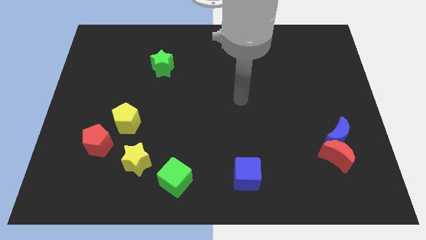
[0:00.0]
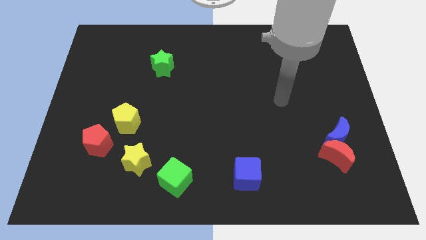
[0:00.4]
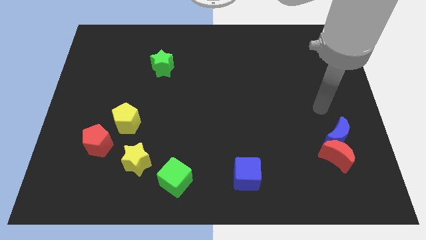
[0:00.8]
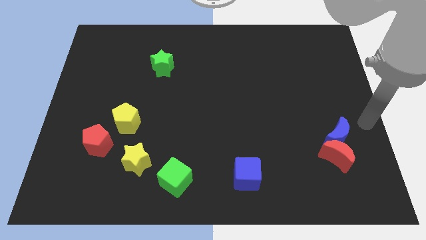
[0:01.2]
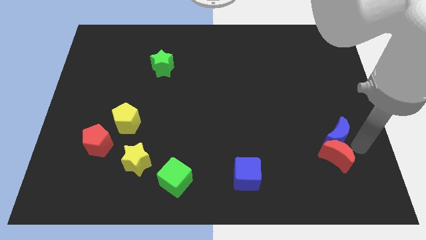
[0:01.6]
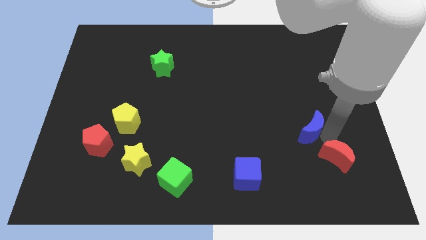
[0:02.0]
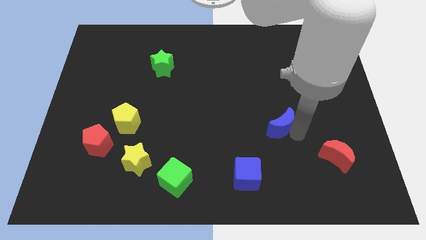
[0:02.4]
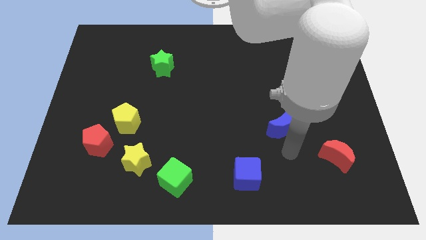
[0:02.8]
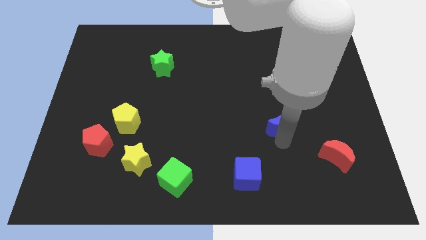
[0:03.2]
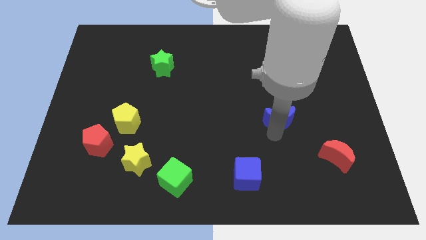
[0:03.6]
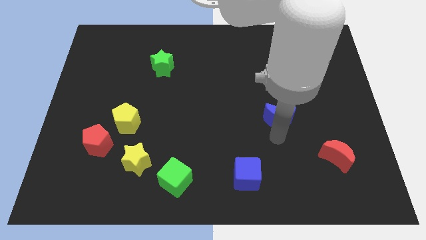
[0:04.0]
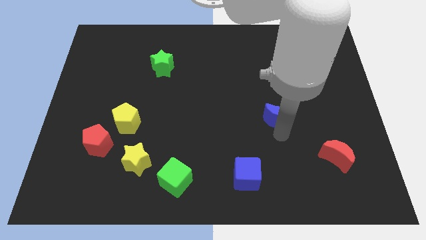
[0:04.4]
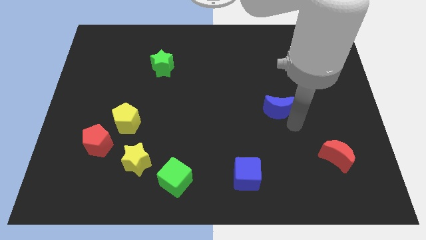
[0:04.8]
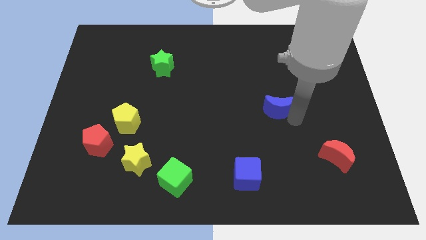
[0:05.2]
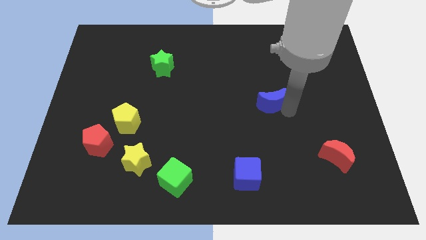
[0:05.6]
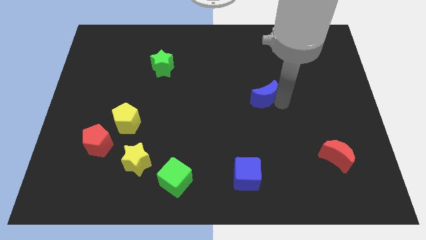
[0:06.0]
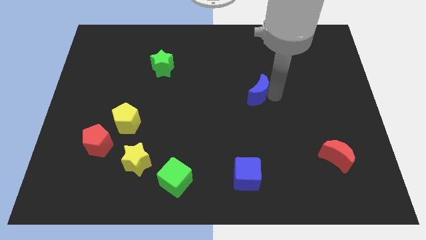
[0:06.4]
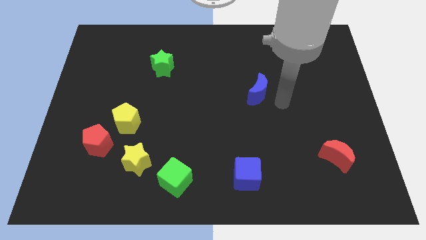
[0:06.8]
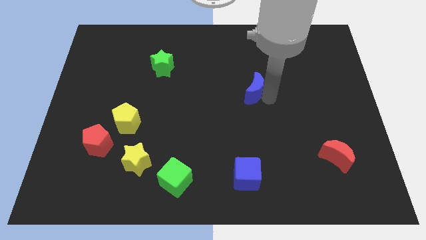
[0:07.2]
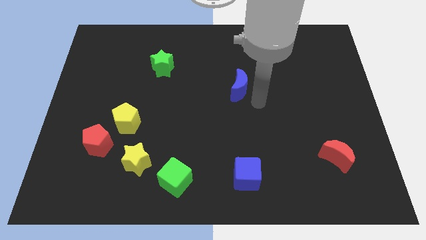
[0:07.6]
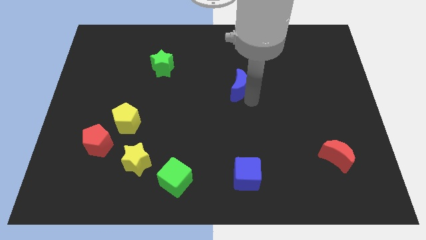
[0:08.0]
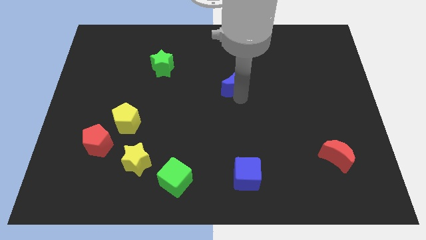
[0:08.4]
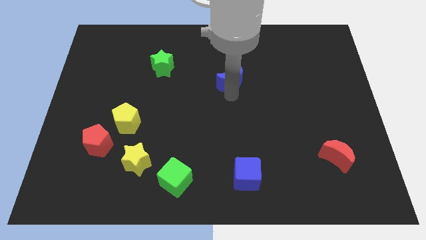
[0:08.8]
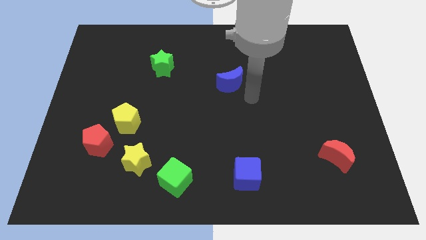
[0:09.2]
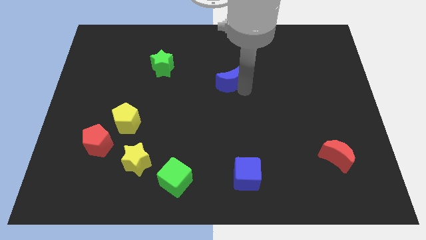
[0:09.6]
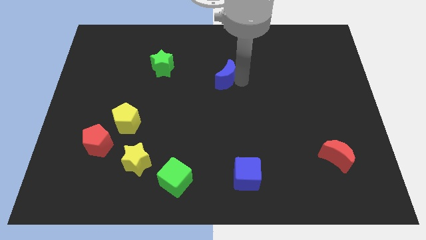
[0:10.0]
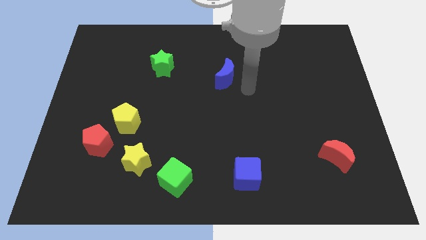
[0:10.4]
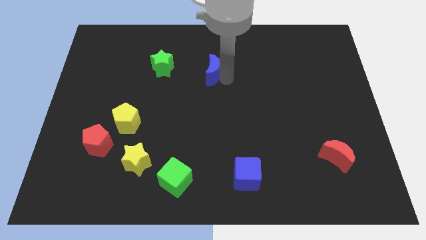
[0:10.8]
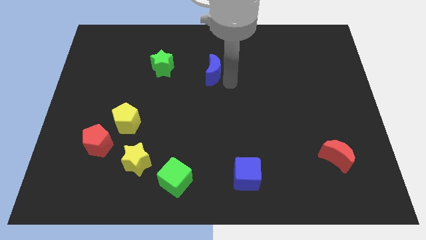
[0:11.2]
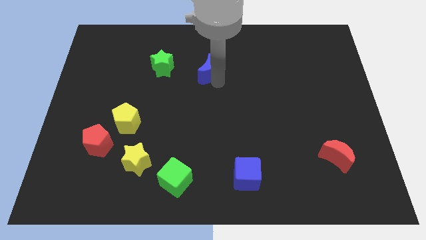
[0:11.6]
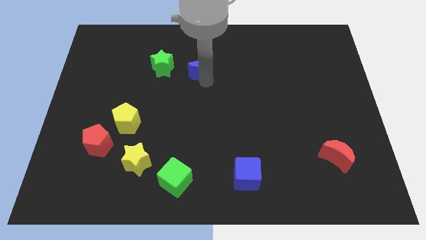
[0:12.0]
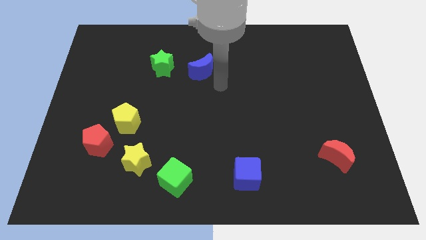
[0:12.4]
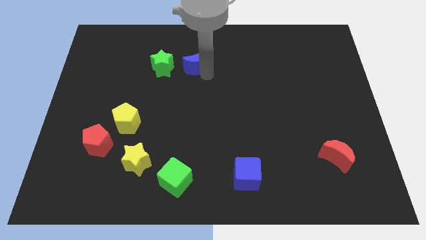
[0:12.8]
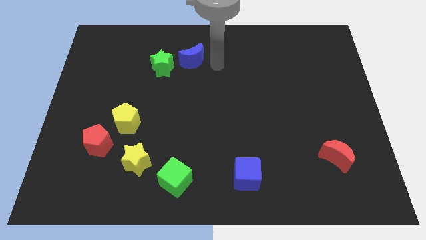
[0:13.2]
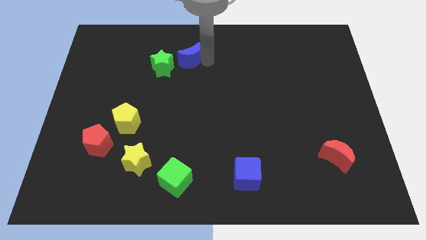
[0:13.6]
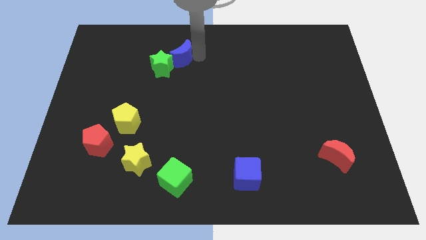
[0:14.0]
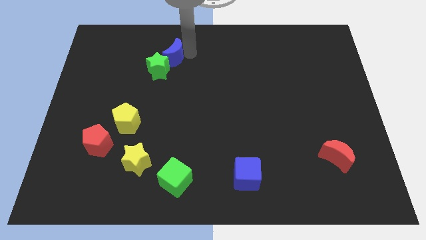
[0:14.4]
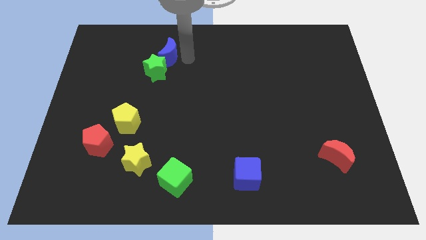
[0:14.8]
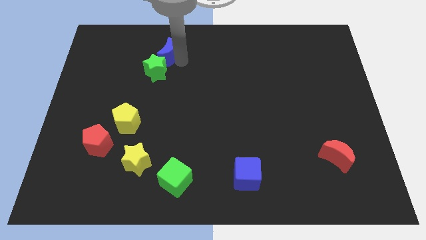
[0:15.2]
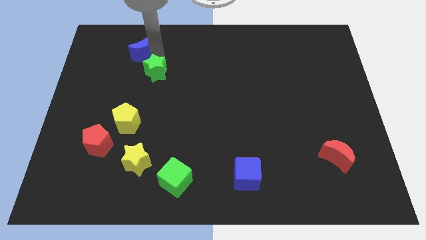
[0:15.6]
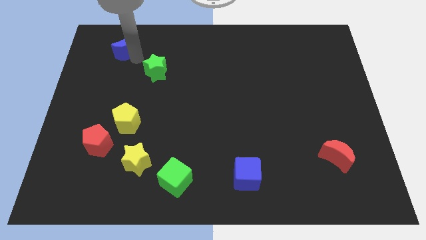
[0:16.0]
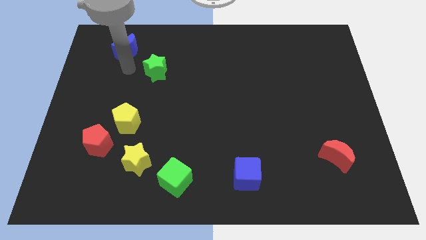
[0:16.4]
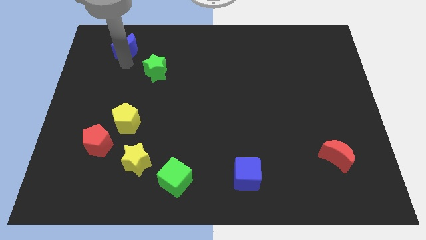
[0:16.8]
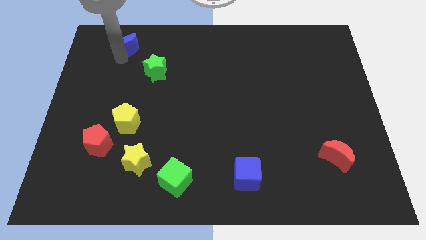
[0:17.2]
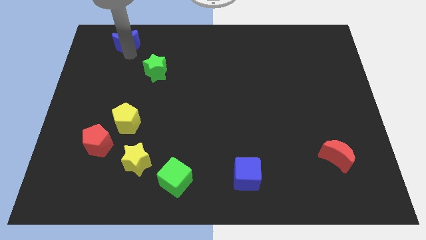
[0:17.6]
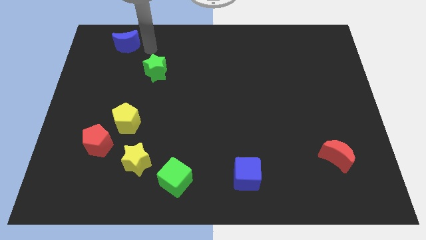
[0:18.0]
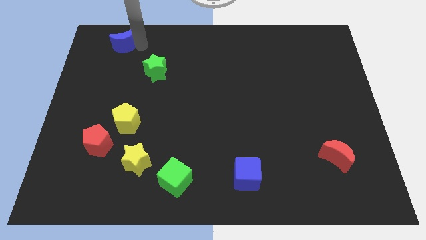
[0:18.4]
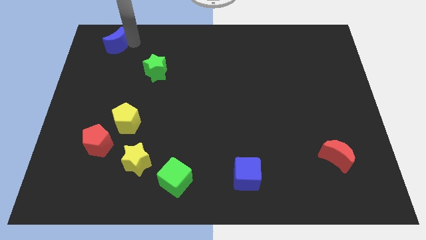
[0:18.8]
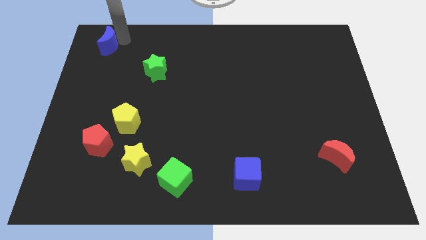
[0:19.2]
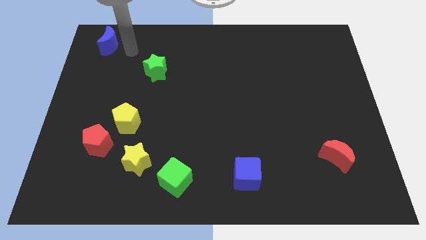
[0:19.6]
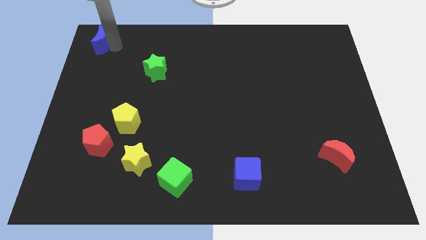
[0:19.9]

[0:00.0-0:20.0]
push the blue moon to the top left

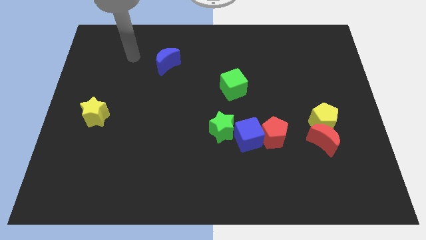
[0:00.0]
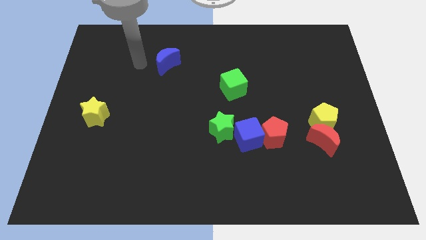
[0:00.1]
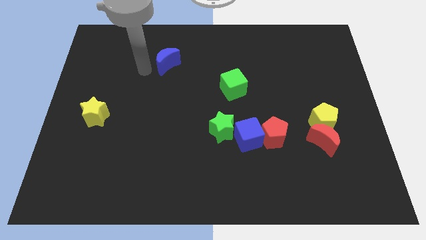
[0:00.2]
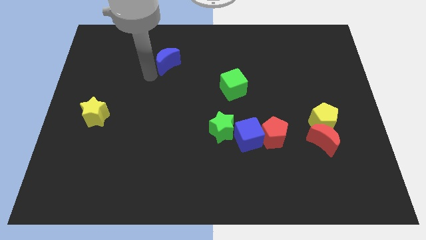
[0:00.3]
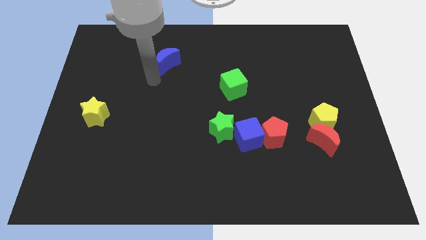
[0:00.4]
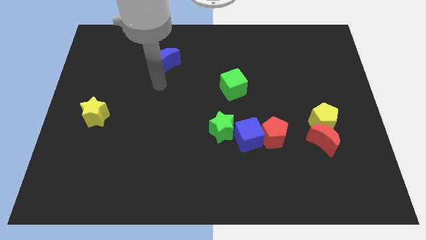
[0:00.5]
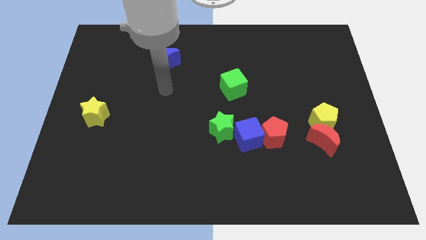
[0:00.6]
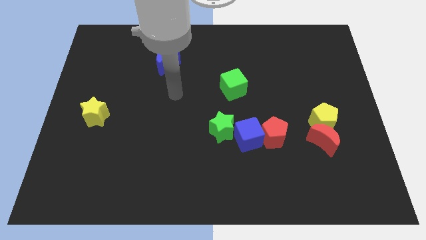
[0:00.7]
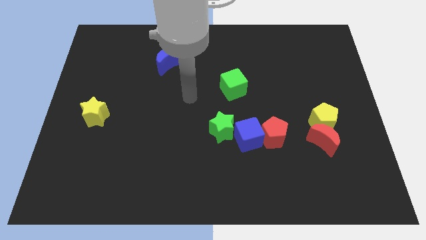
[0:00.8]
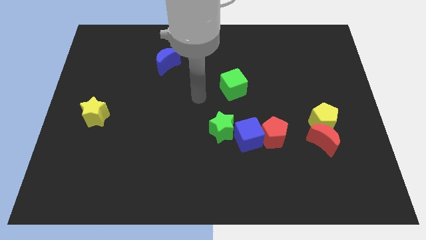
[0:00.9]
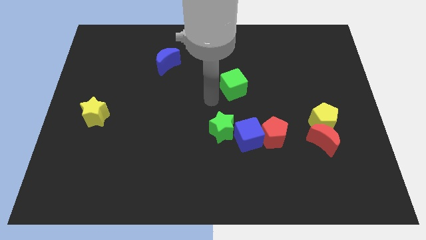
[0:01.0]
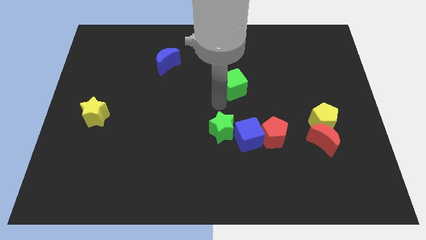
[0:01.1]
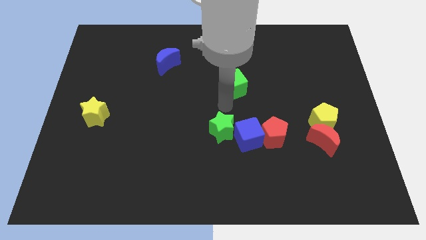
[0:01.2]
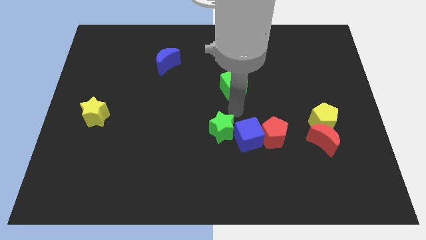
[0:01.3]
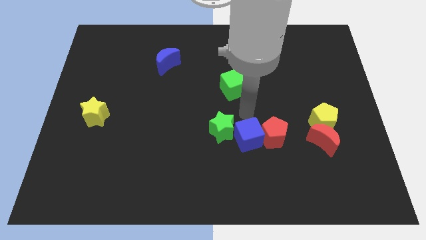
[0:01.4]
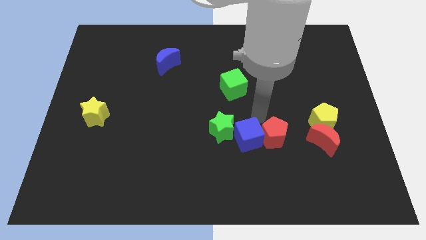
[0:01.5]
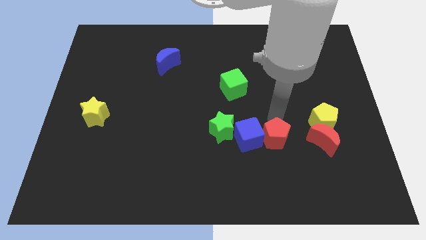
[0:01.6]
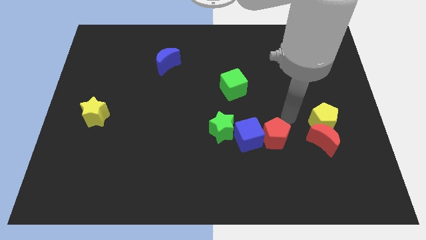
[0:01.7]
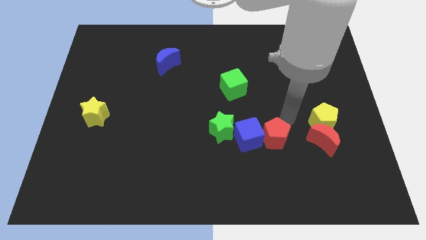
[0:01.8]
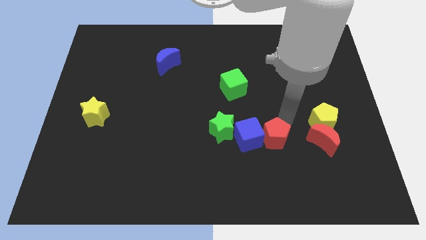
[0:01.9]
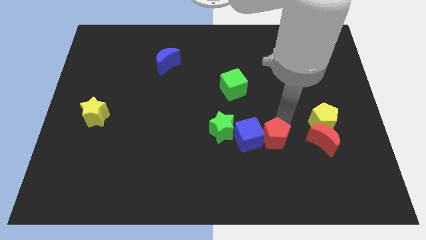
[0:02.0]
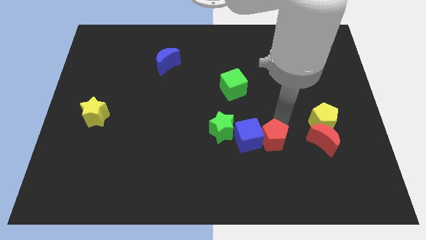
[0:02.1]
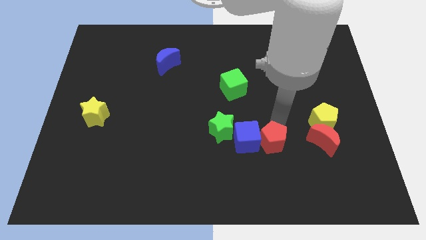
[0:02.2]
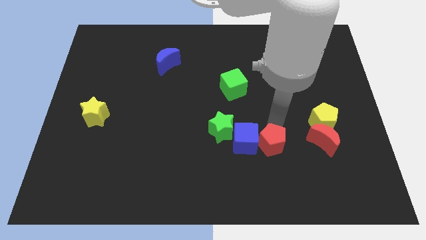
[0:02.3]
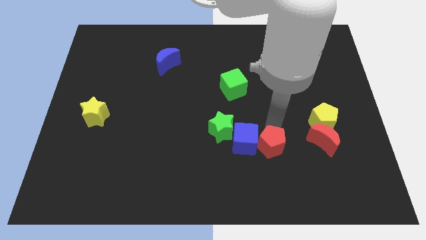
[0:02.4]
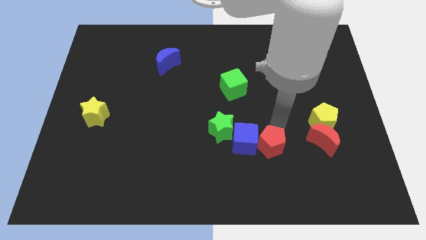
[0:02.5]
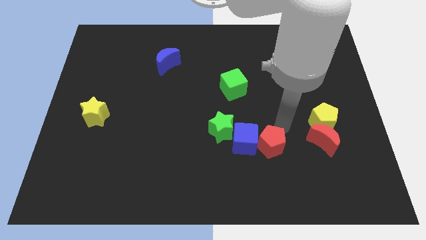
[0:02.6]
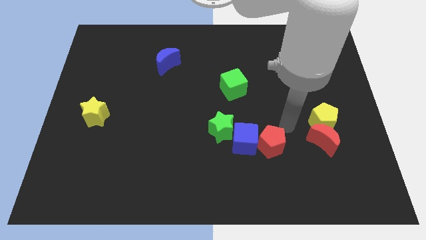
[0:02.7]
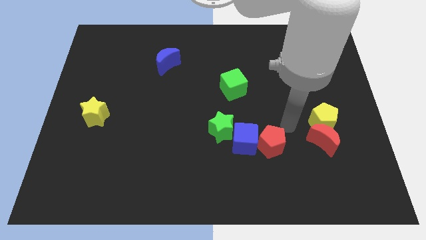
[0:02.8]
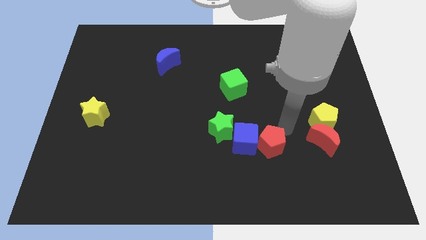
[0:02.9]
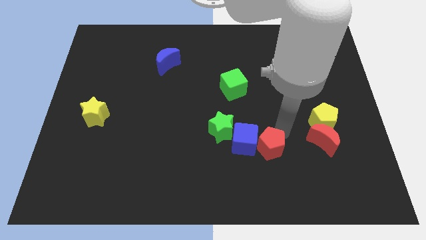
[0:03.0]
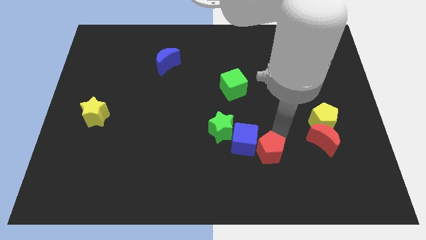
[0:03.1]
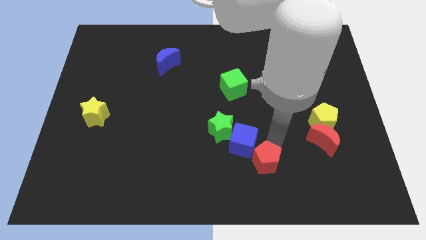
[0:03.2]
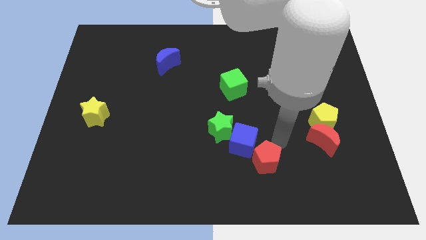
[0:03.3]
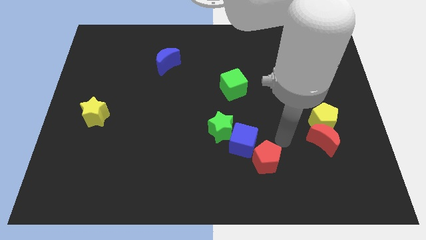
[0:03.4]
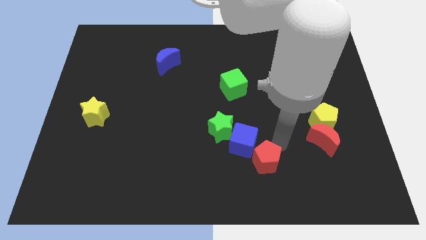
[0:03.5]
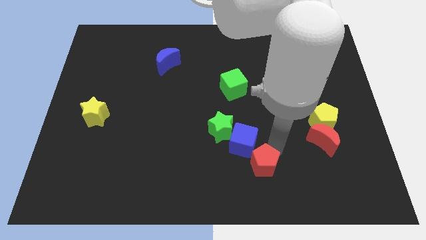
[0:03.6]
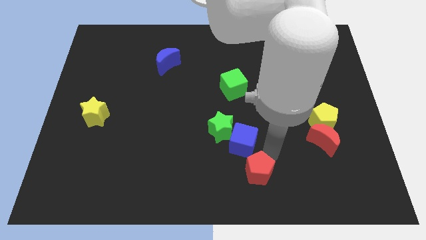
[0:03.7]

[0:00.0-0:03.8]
push the red pentagon to the bottom side
